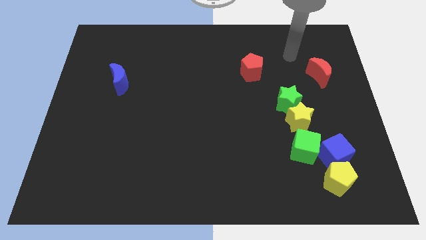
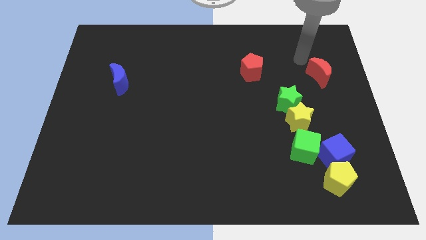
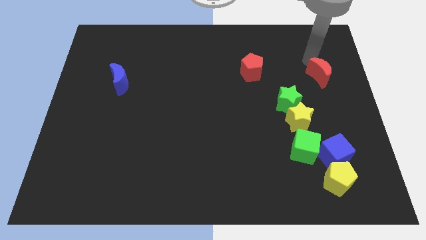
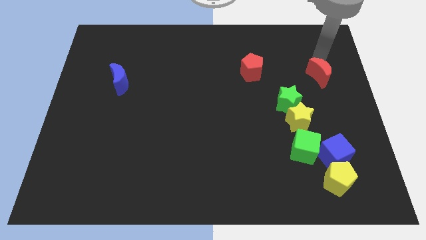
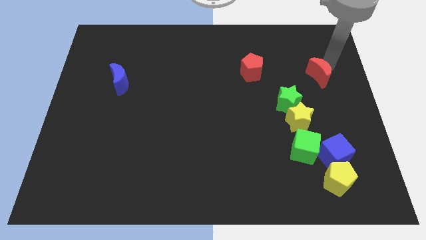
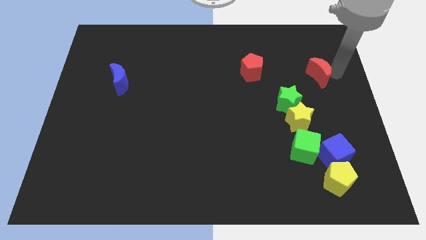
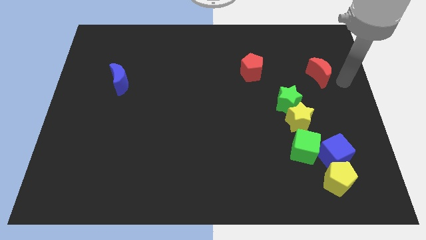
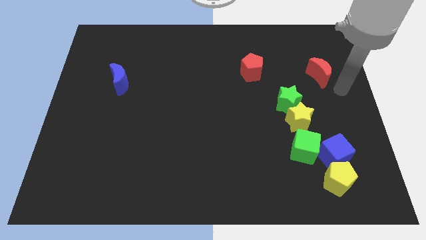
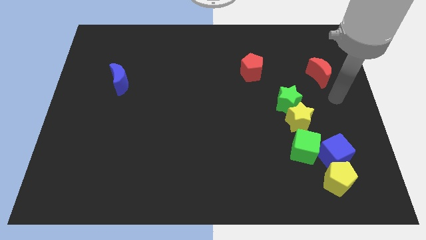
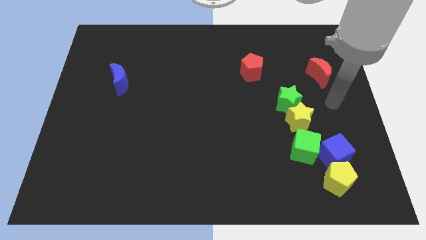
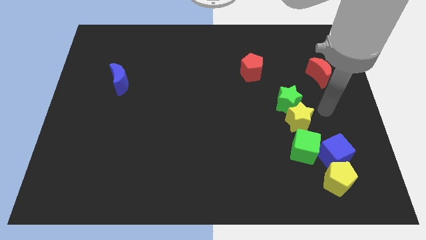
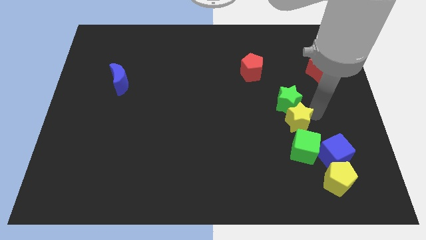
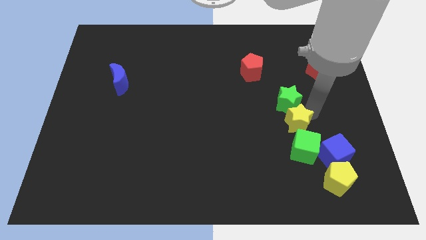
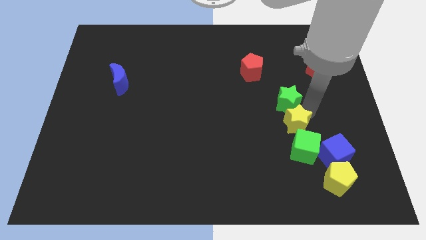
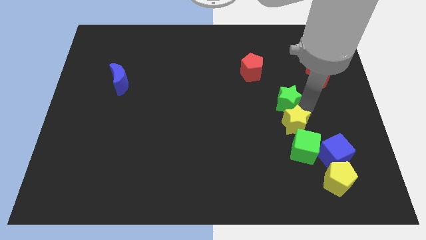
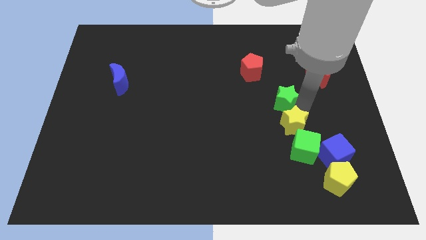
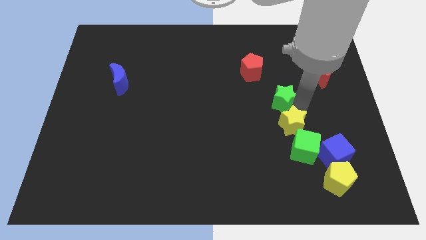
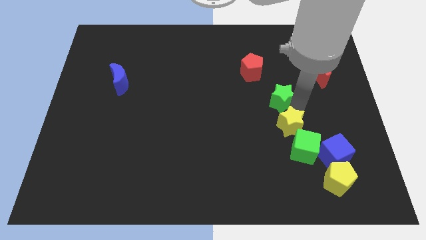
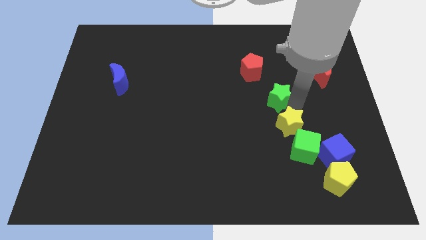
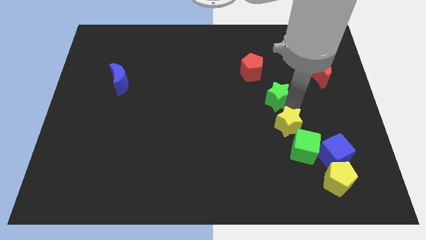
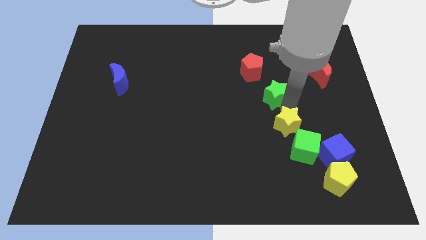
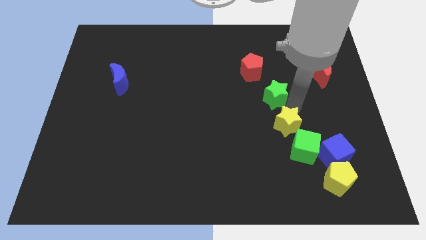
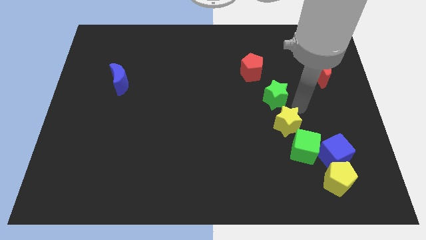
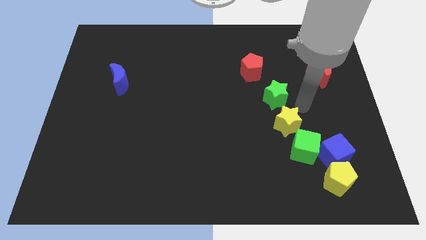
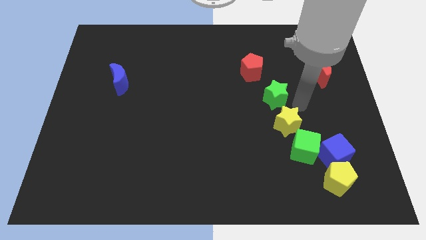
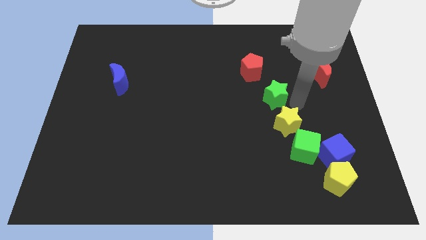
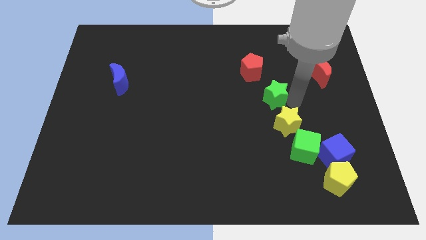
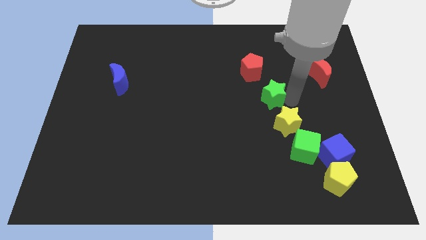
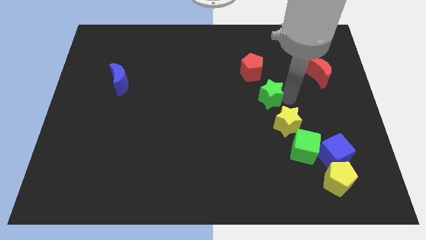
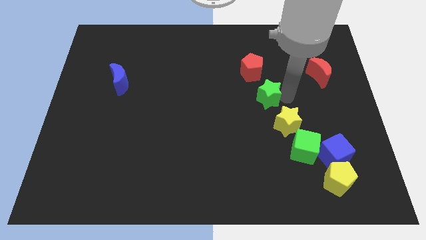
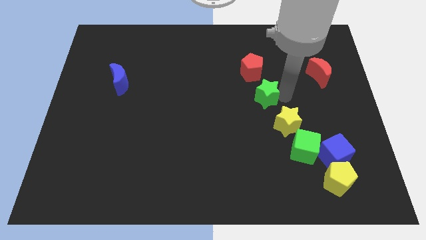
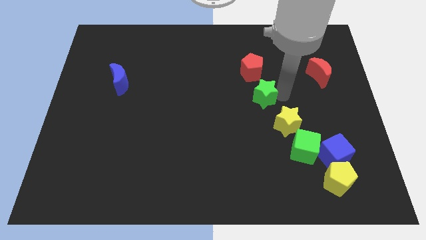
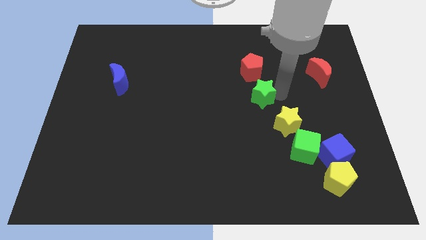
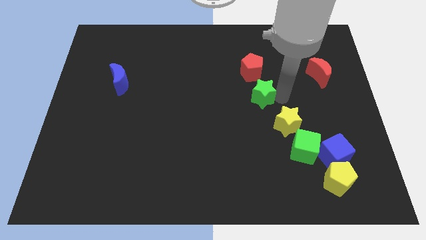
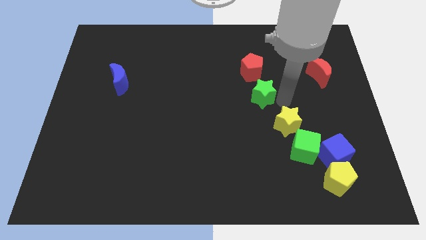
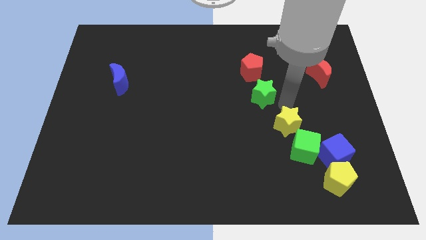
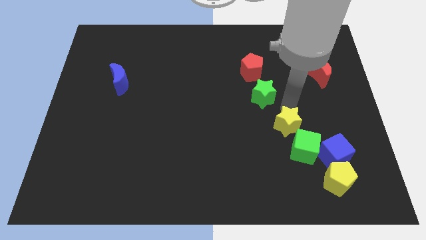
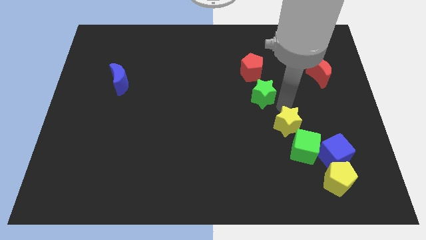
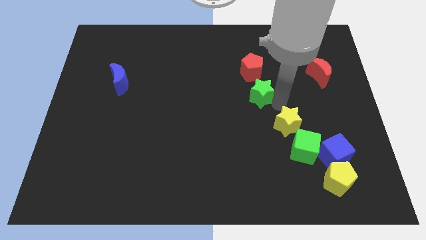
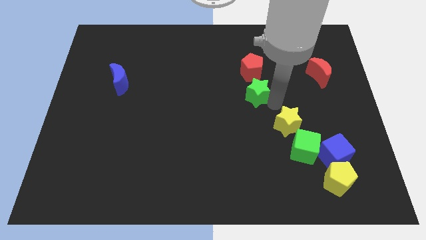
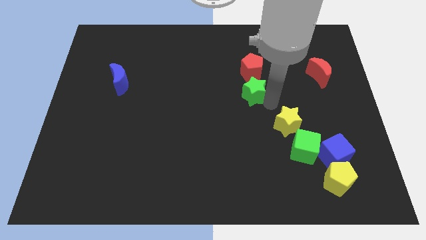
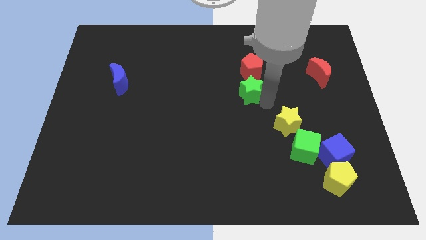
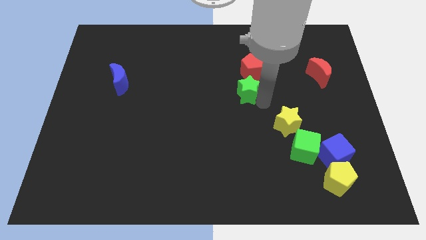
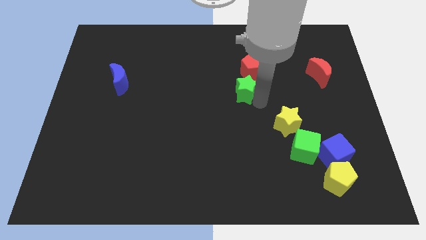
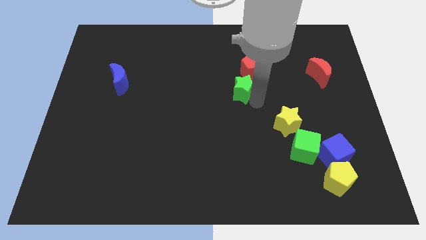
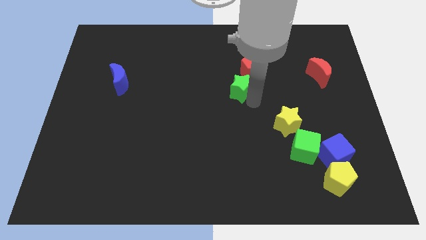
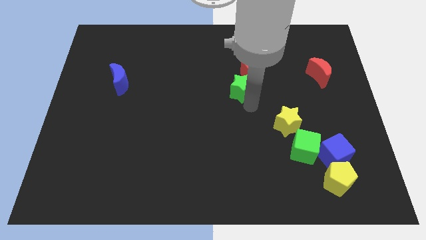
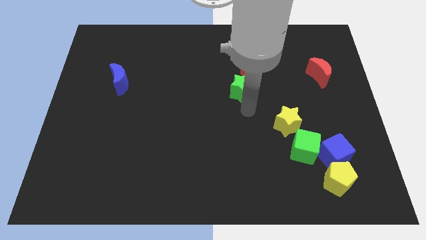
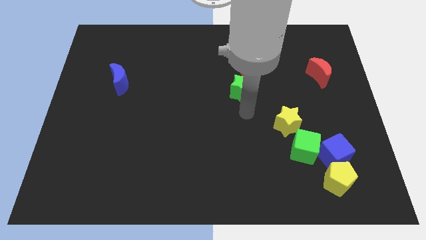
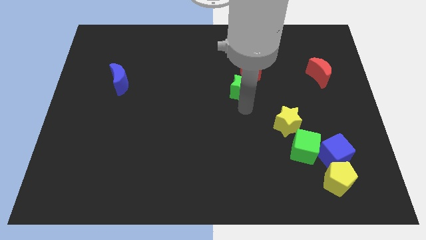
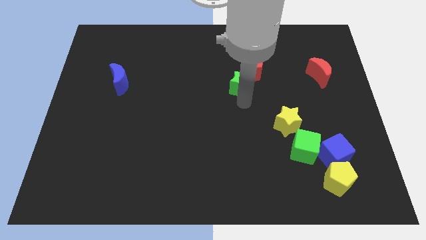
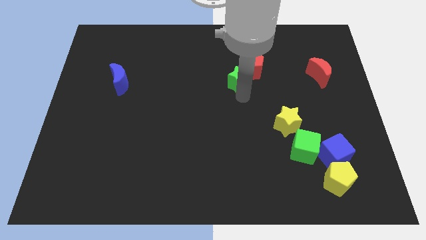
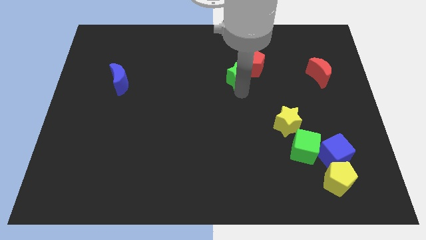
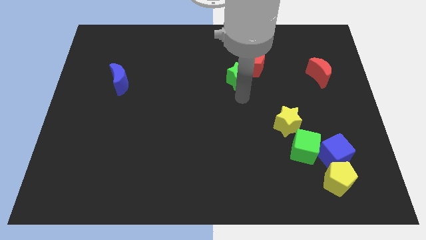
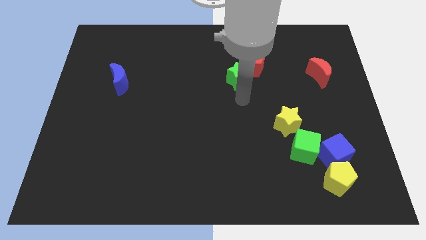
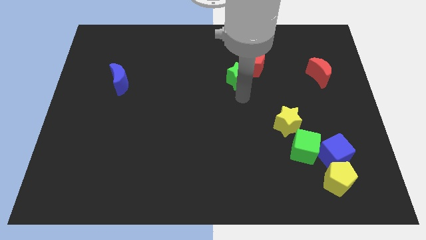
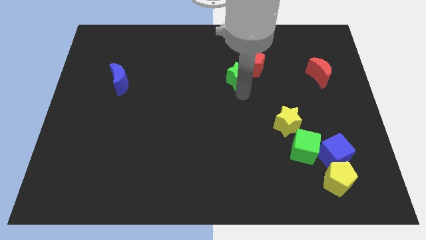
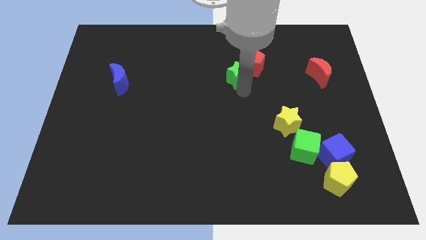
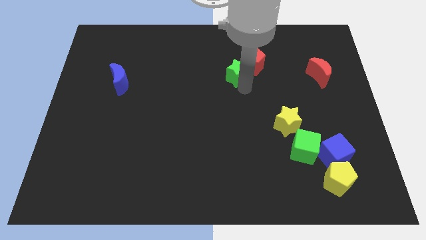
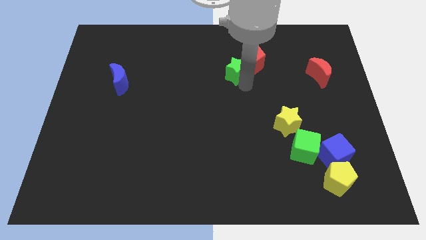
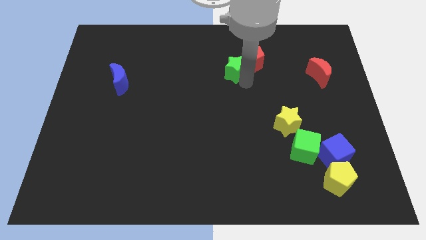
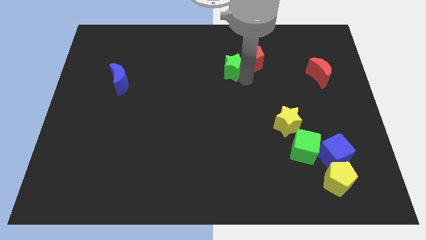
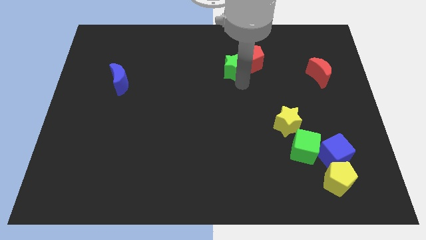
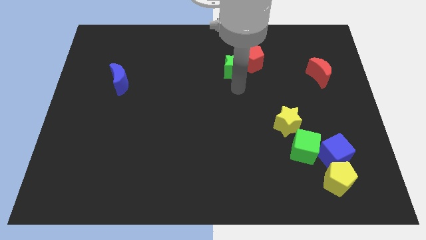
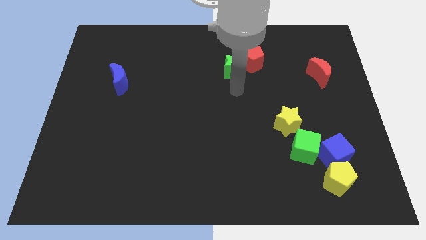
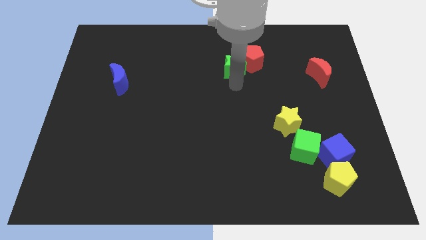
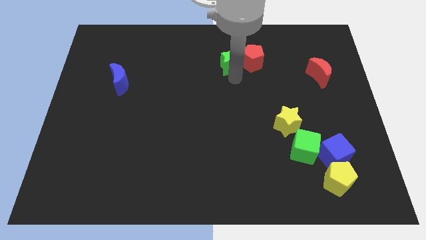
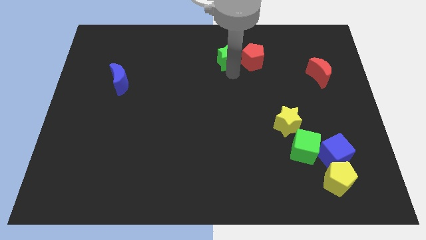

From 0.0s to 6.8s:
move the green star to the top left of the red pentagon

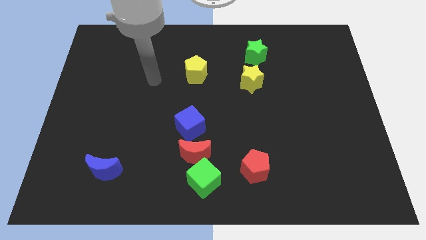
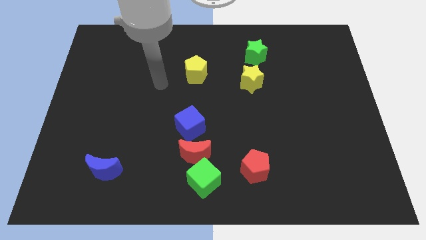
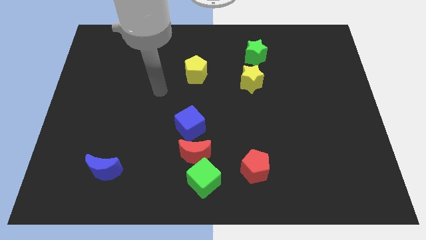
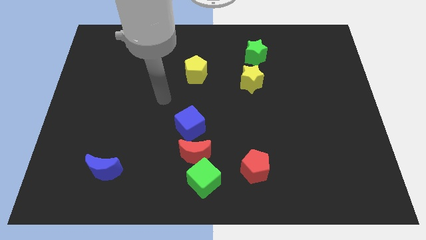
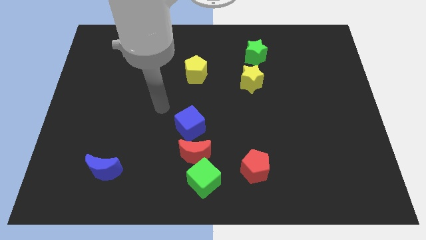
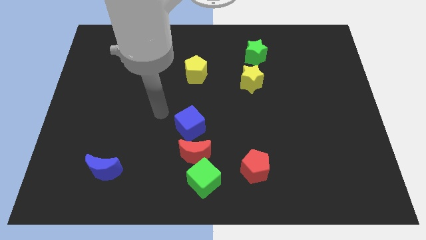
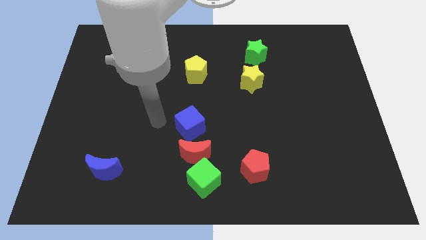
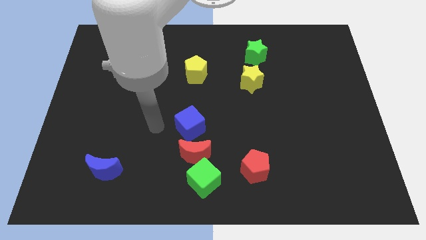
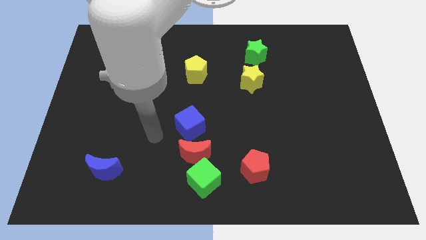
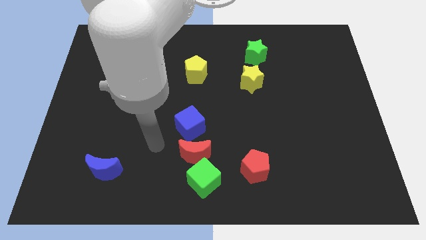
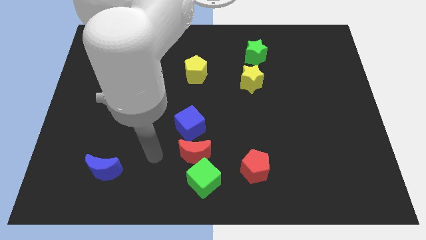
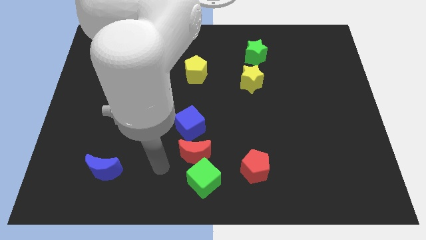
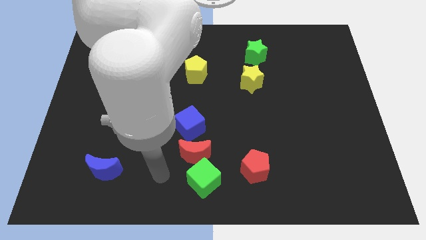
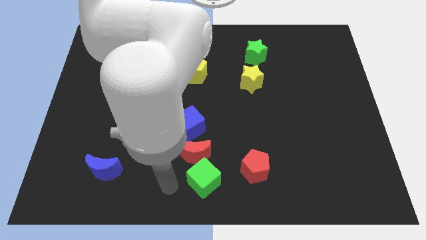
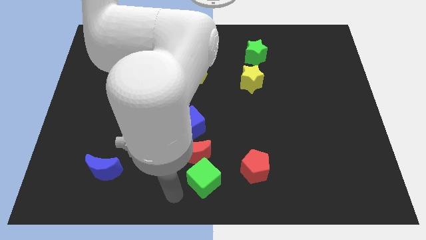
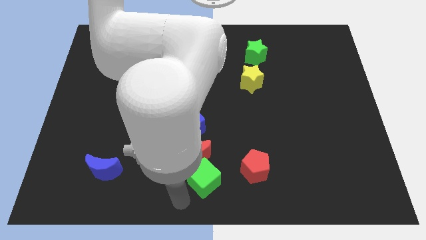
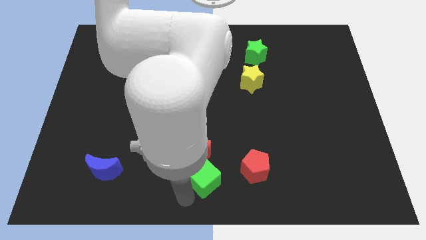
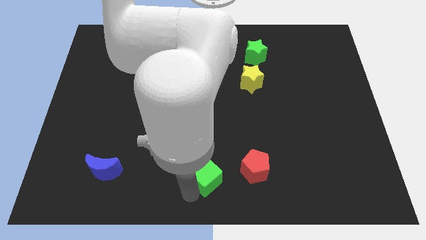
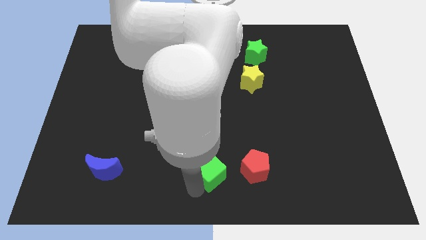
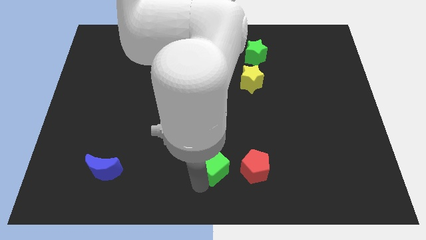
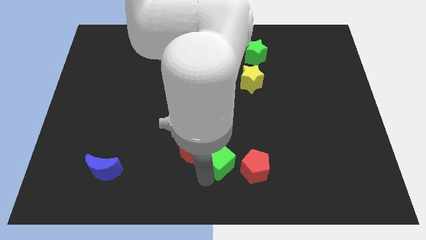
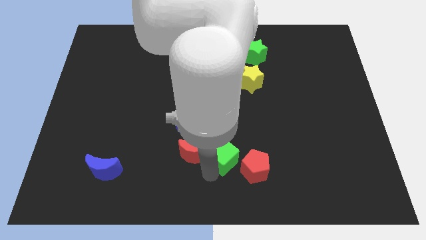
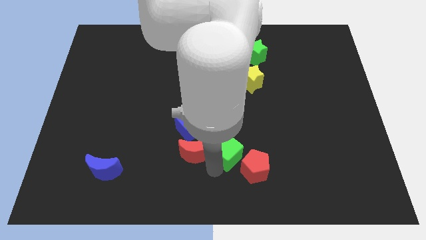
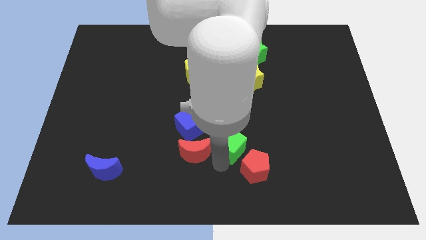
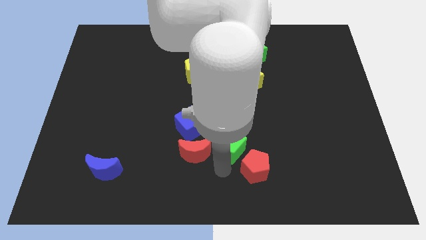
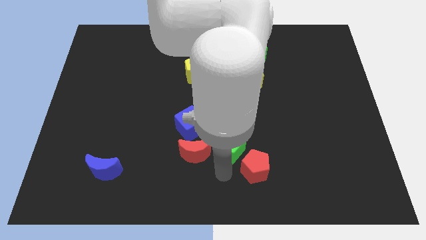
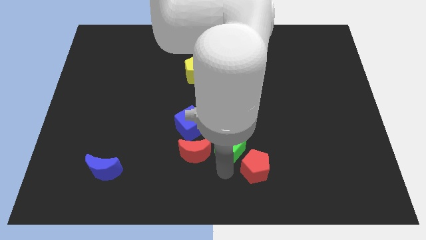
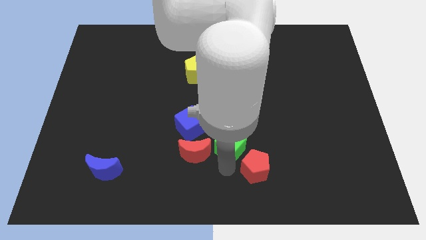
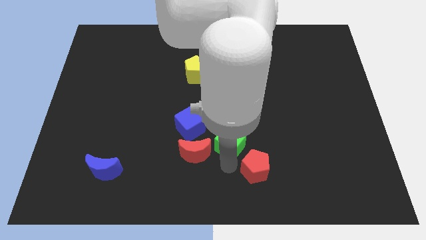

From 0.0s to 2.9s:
put the green cube to the right of the blue cube
